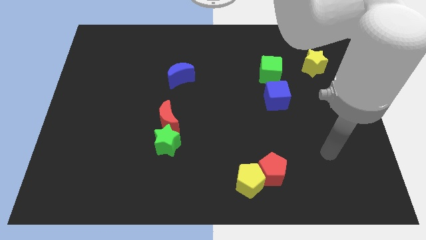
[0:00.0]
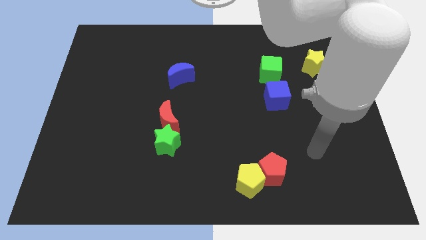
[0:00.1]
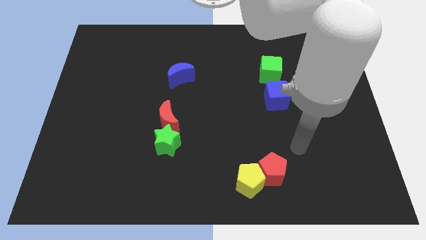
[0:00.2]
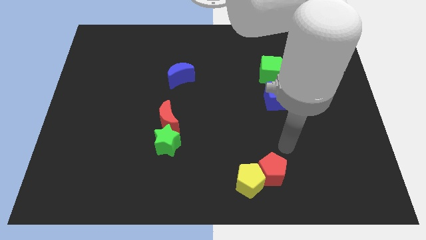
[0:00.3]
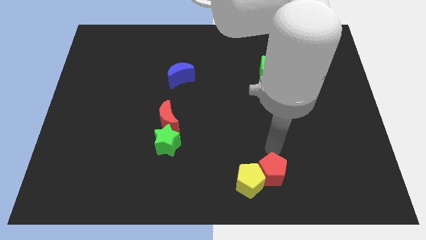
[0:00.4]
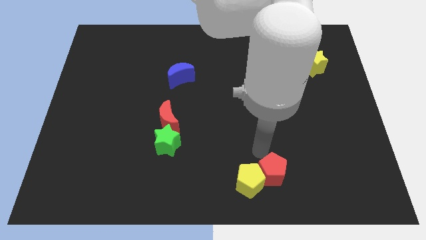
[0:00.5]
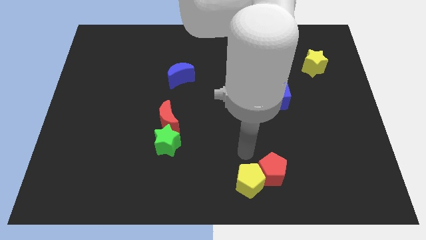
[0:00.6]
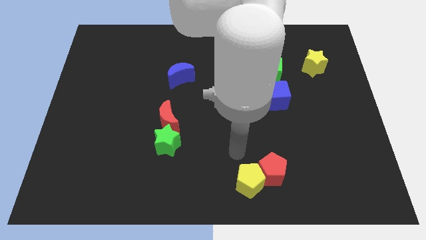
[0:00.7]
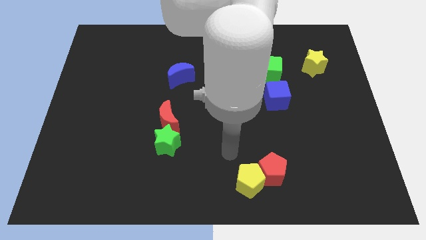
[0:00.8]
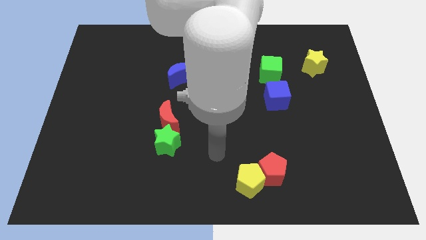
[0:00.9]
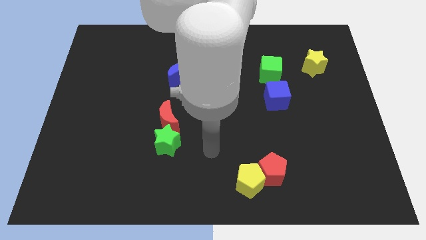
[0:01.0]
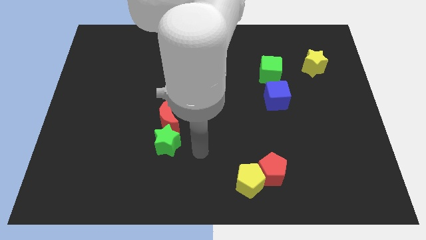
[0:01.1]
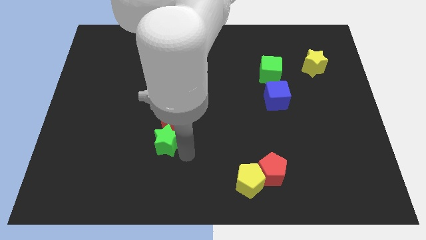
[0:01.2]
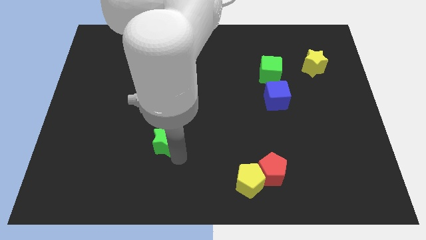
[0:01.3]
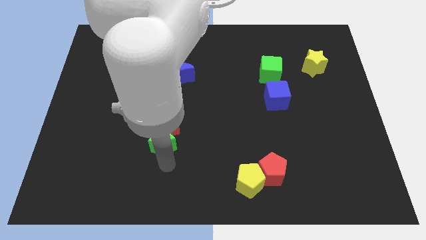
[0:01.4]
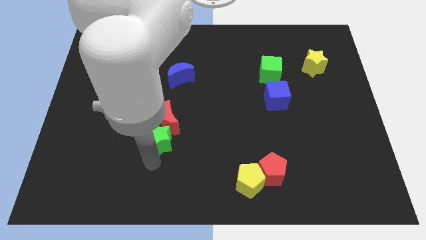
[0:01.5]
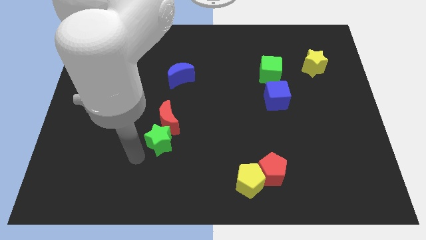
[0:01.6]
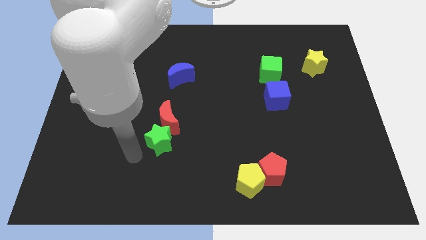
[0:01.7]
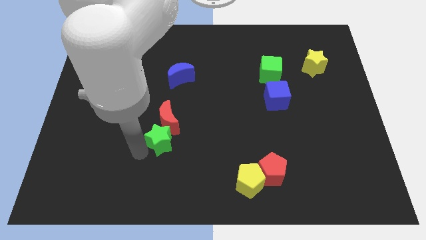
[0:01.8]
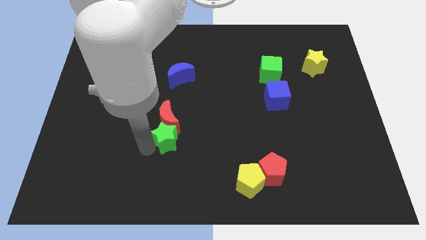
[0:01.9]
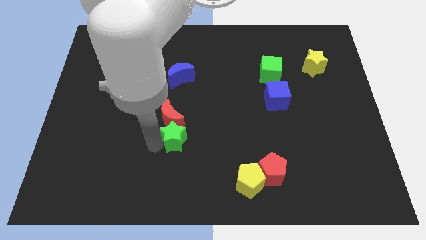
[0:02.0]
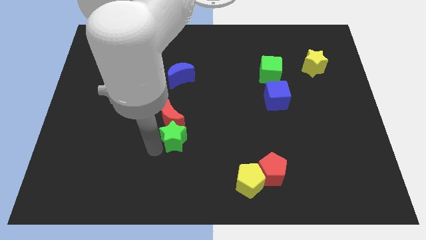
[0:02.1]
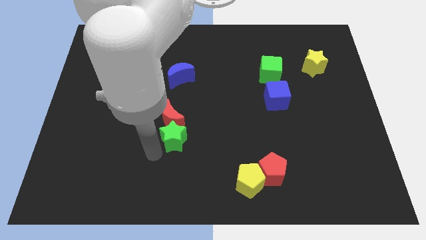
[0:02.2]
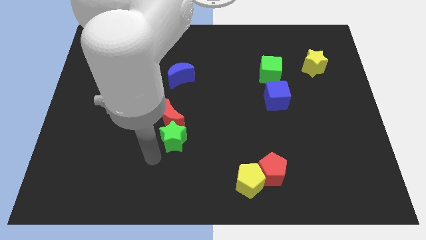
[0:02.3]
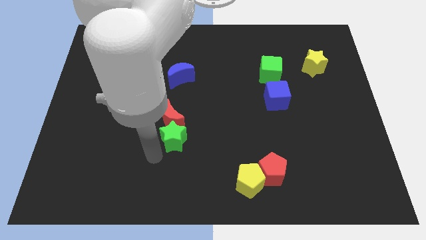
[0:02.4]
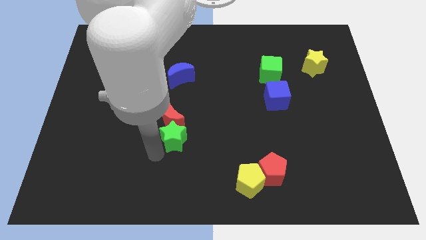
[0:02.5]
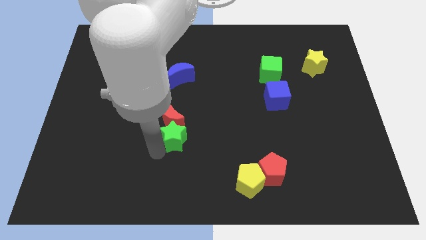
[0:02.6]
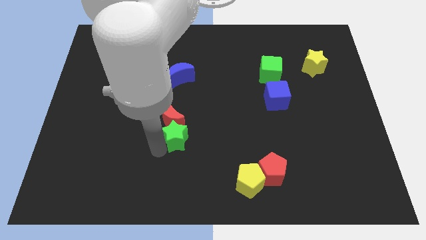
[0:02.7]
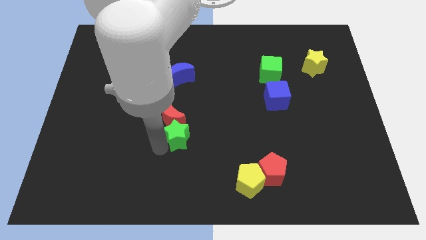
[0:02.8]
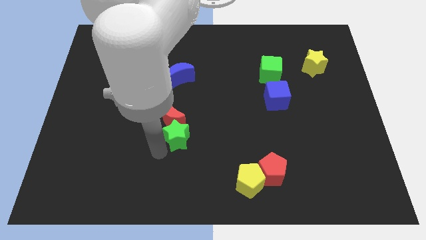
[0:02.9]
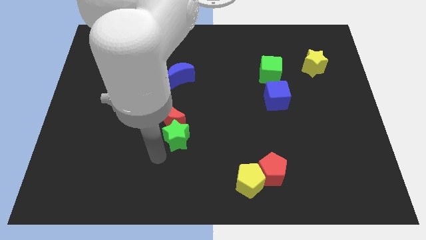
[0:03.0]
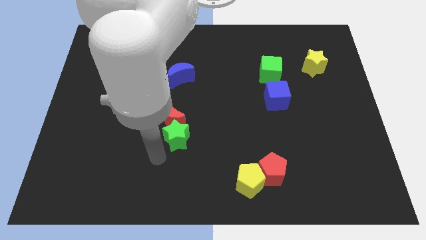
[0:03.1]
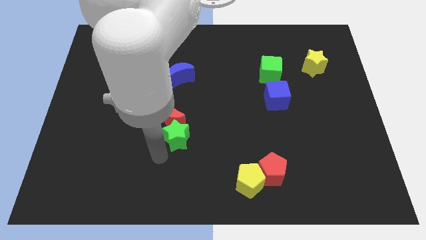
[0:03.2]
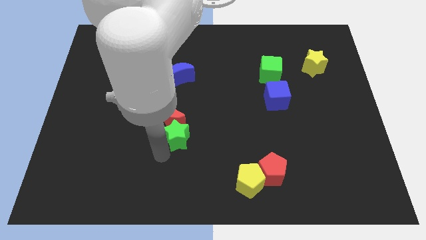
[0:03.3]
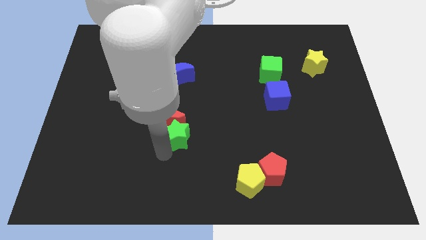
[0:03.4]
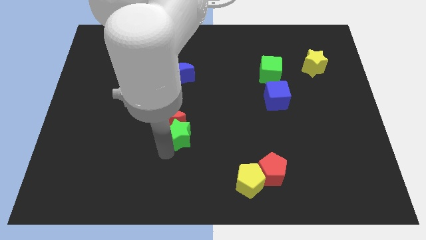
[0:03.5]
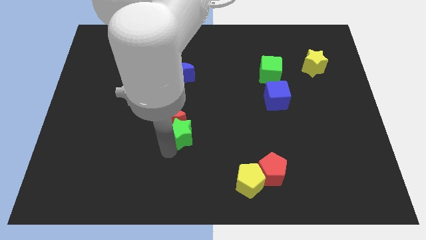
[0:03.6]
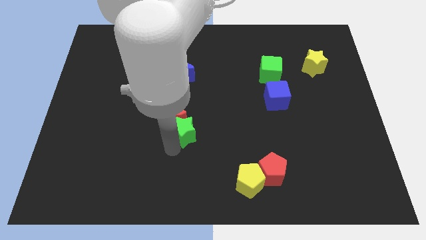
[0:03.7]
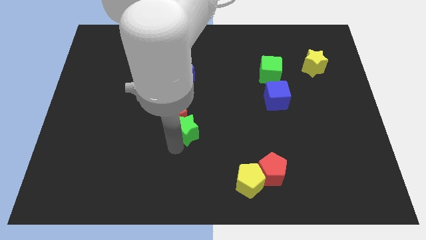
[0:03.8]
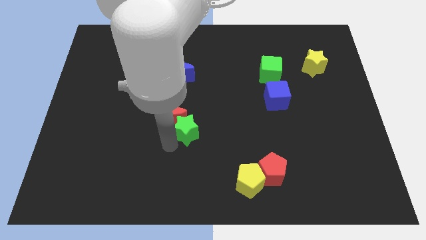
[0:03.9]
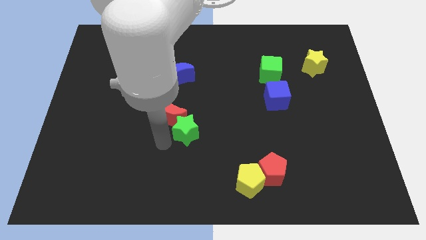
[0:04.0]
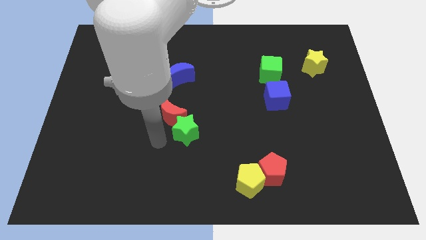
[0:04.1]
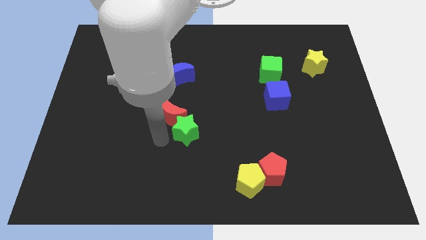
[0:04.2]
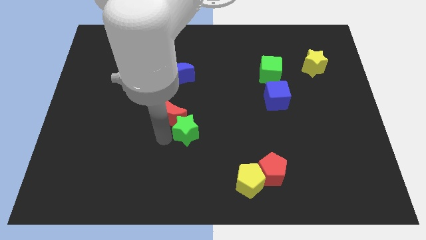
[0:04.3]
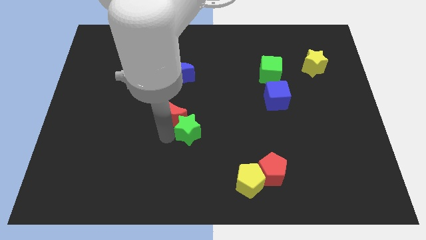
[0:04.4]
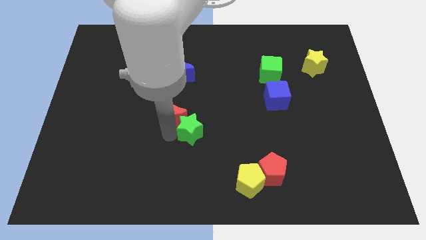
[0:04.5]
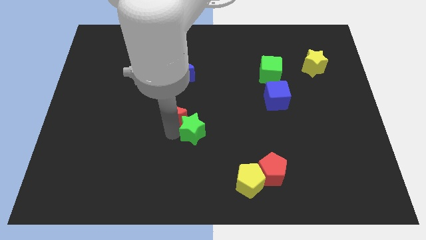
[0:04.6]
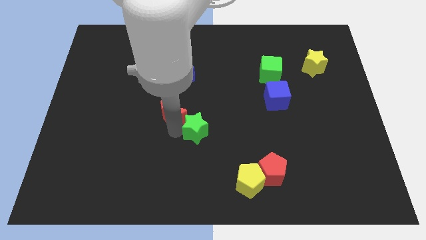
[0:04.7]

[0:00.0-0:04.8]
move the green star a bit diagonally upwards and right

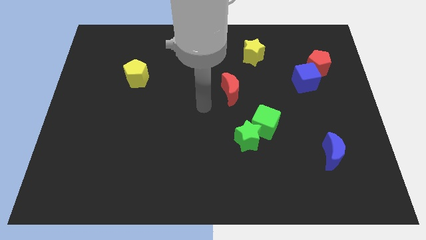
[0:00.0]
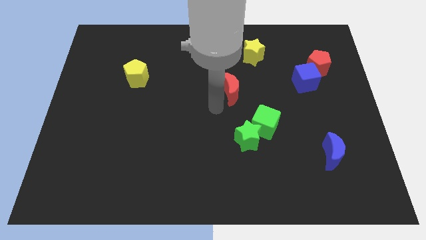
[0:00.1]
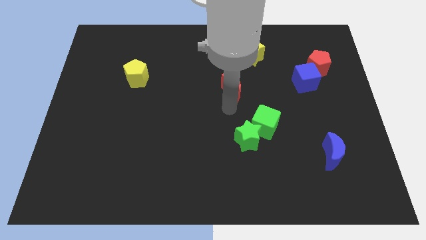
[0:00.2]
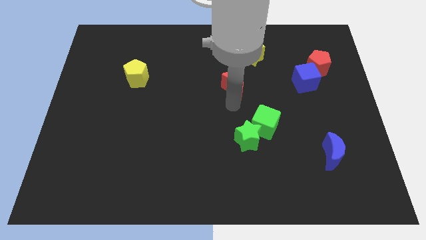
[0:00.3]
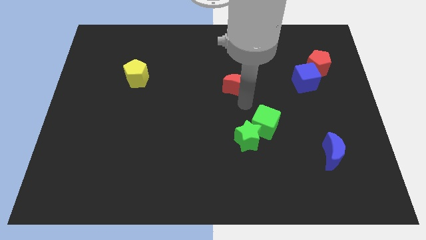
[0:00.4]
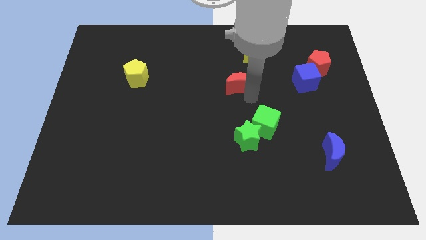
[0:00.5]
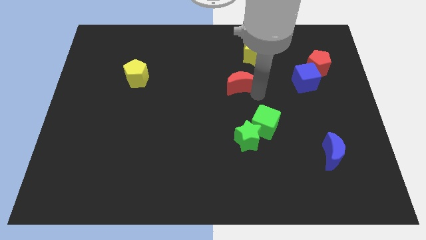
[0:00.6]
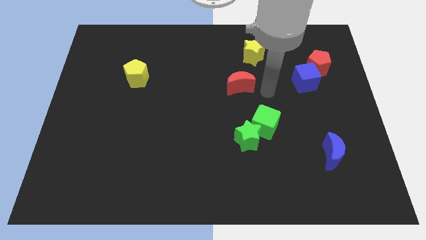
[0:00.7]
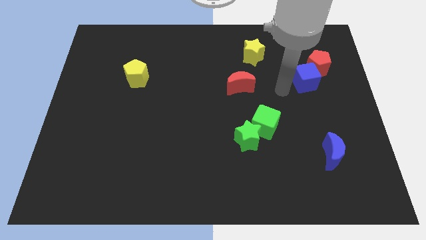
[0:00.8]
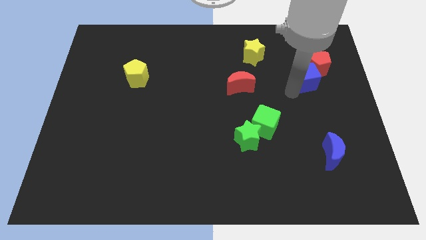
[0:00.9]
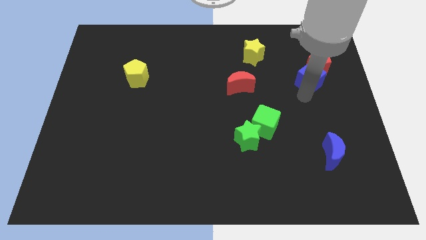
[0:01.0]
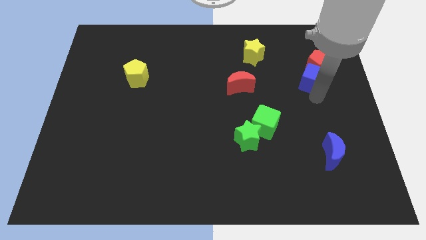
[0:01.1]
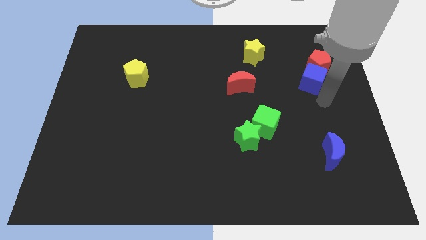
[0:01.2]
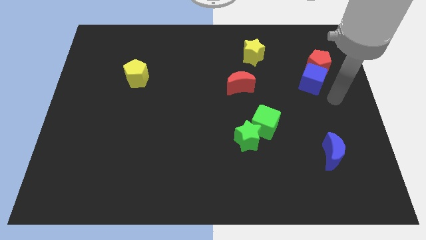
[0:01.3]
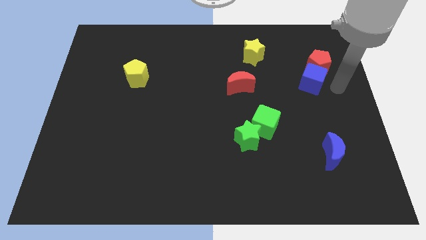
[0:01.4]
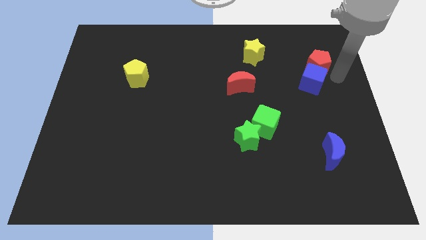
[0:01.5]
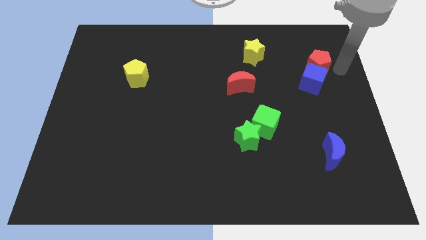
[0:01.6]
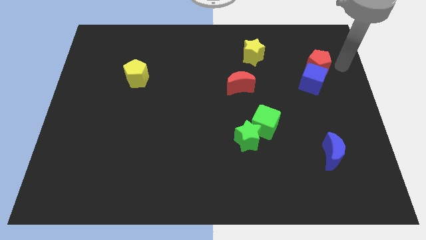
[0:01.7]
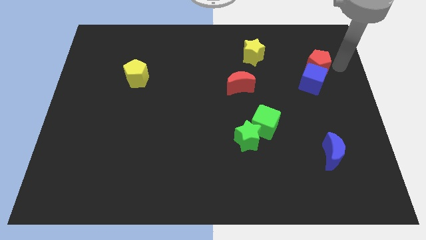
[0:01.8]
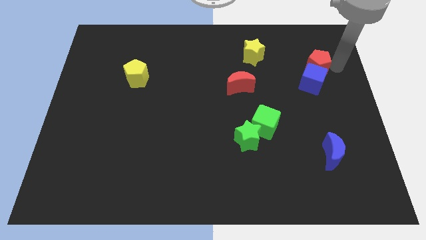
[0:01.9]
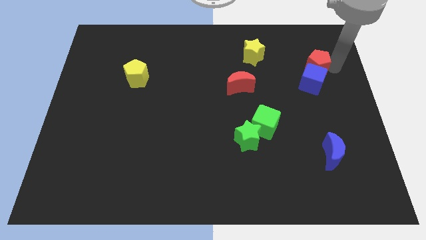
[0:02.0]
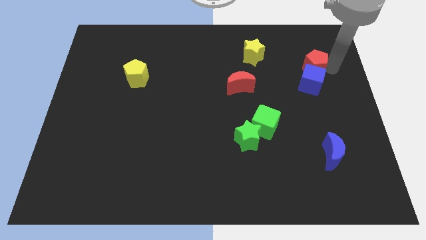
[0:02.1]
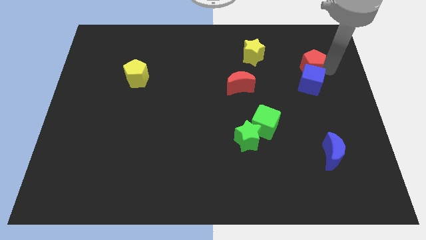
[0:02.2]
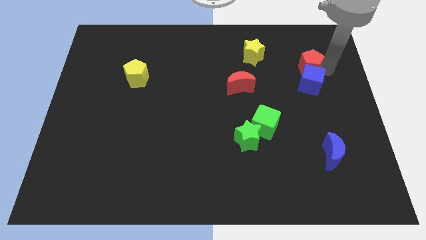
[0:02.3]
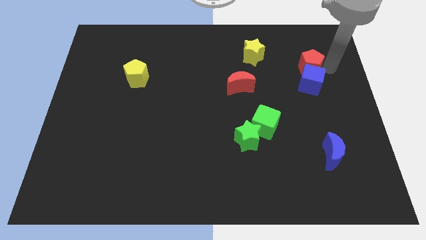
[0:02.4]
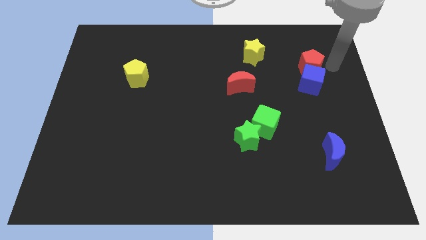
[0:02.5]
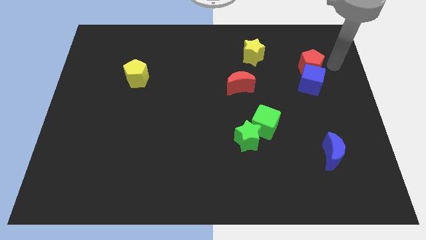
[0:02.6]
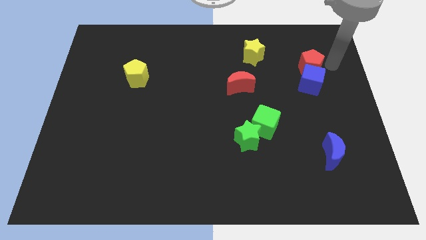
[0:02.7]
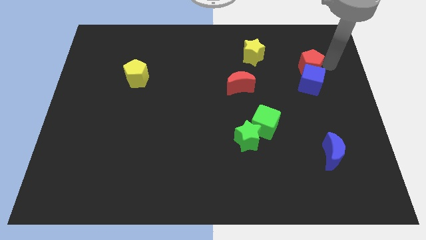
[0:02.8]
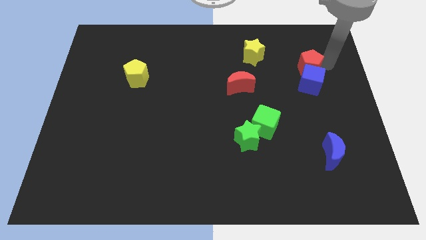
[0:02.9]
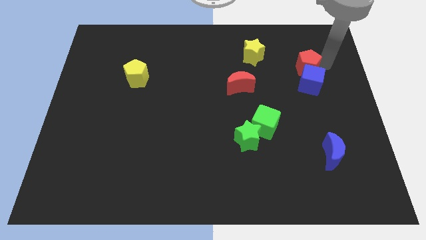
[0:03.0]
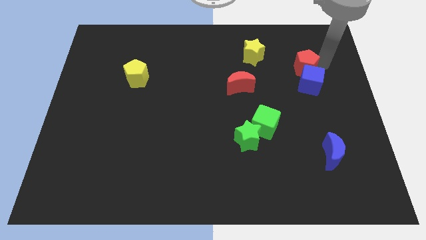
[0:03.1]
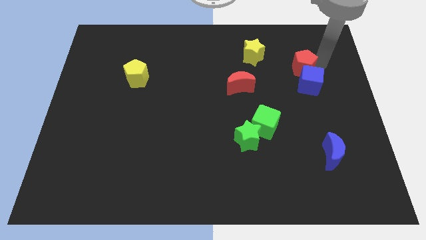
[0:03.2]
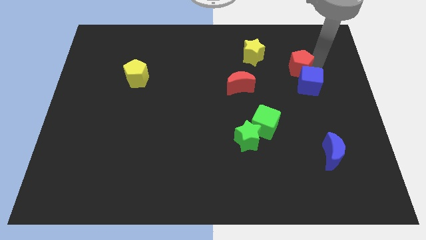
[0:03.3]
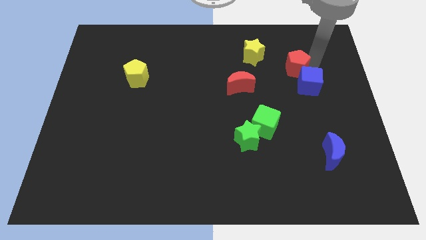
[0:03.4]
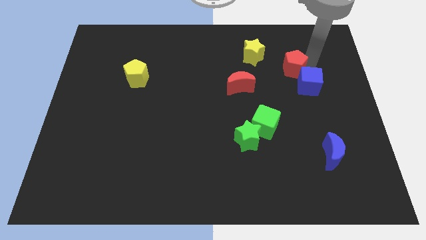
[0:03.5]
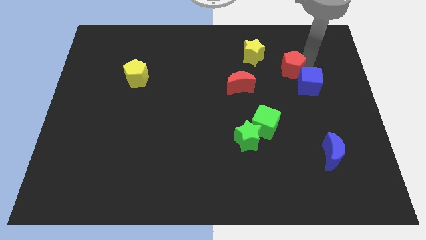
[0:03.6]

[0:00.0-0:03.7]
move the red pentagon a bit to the left
